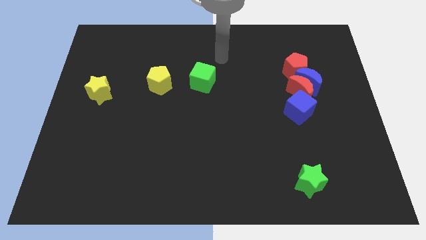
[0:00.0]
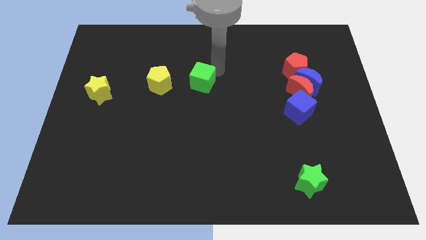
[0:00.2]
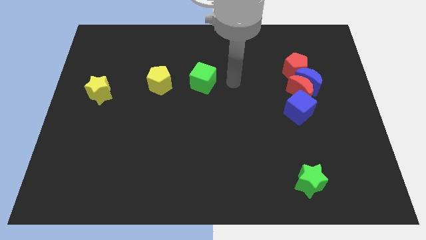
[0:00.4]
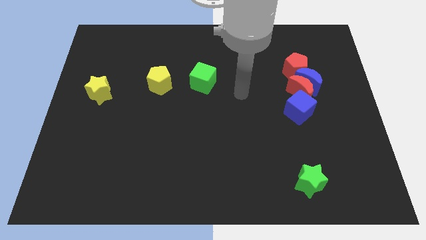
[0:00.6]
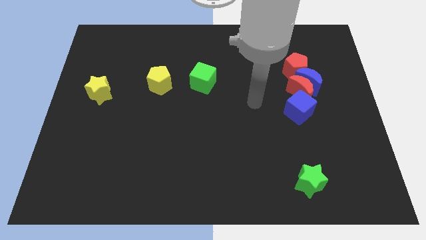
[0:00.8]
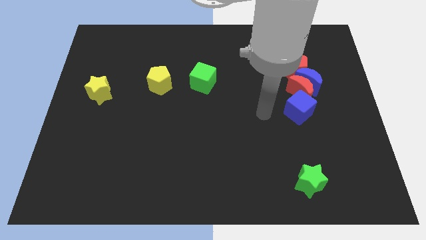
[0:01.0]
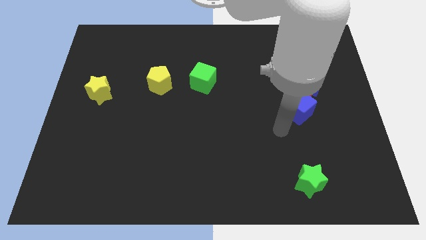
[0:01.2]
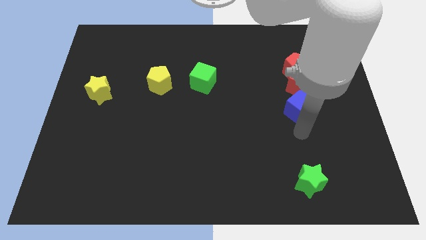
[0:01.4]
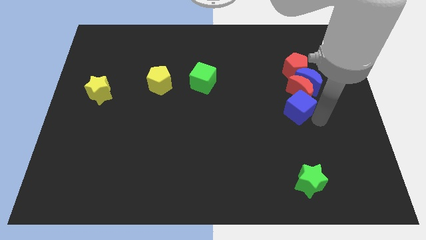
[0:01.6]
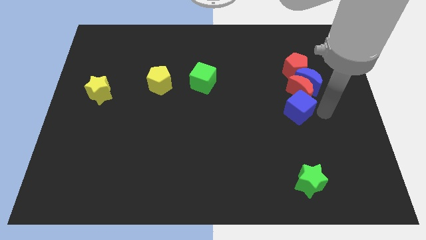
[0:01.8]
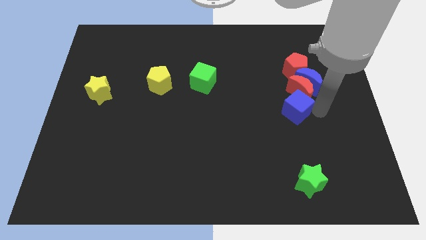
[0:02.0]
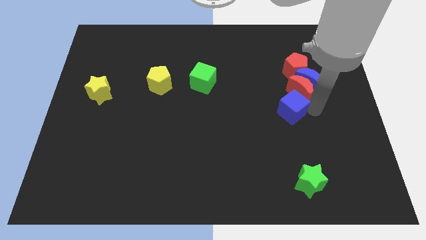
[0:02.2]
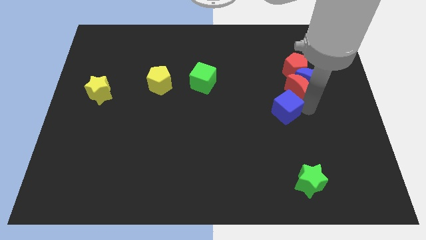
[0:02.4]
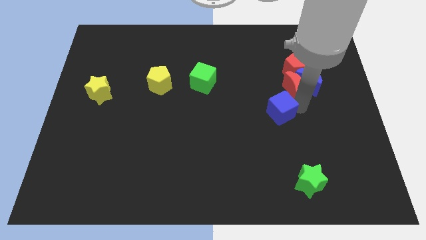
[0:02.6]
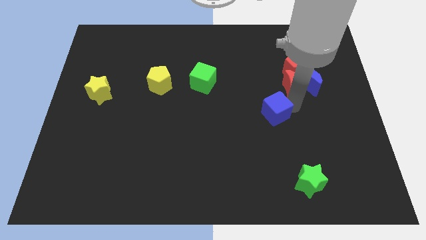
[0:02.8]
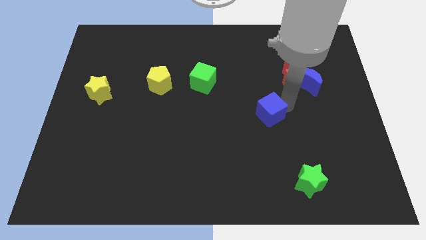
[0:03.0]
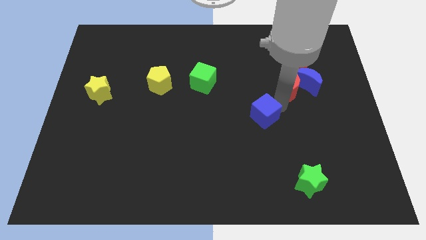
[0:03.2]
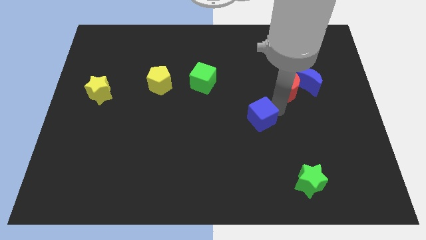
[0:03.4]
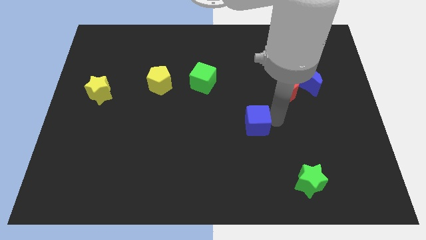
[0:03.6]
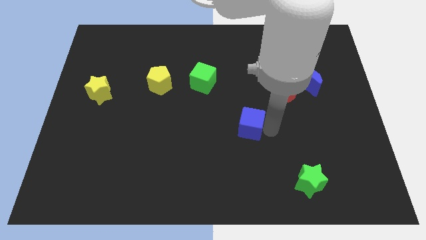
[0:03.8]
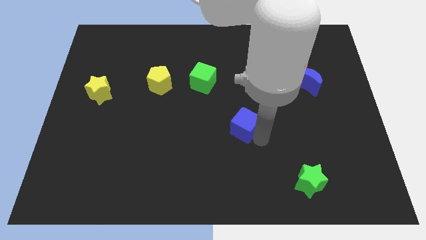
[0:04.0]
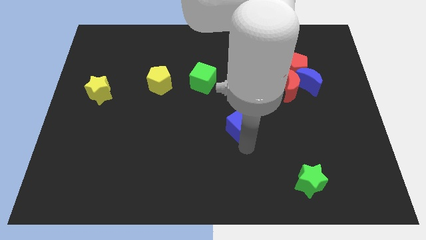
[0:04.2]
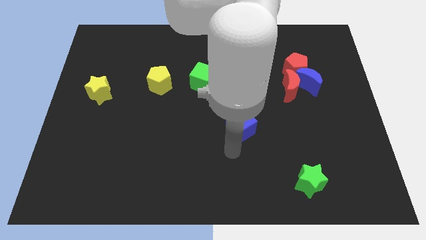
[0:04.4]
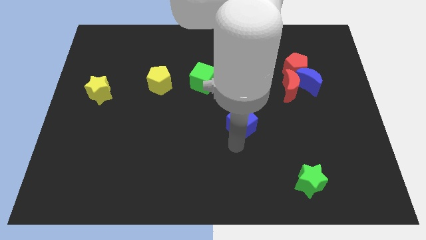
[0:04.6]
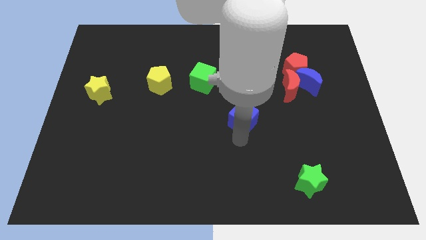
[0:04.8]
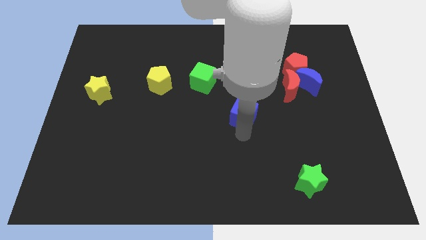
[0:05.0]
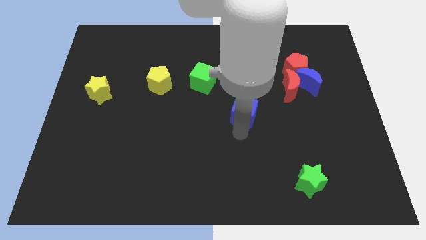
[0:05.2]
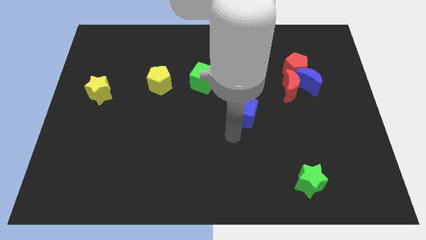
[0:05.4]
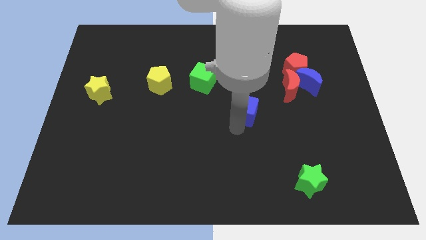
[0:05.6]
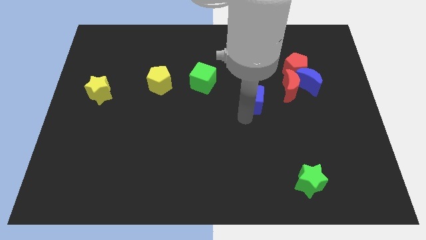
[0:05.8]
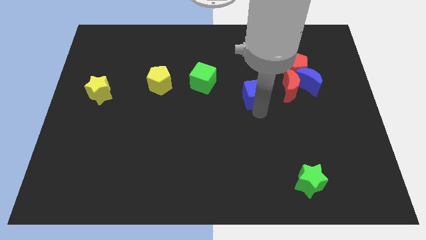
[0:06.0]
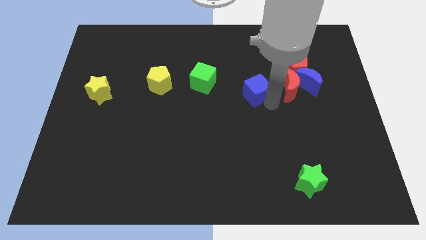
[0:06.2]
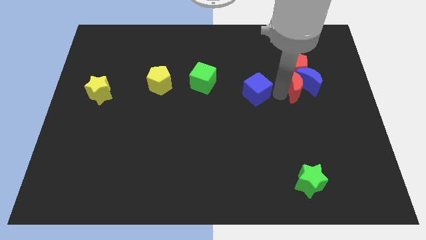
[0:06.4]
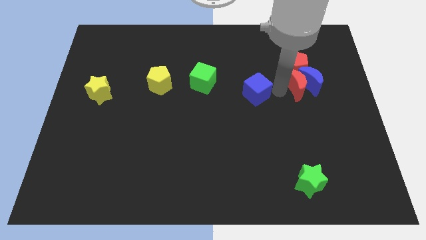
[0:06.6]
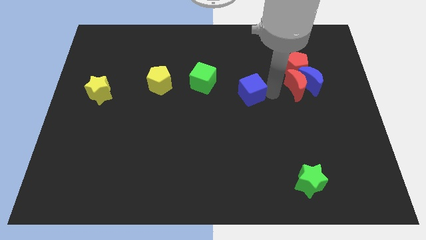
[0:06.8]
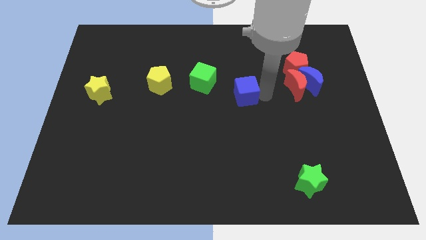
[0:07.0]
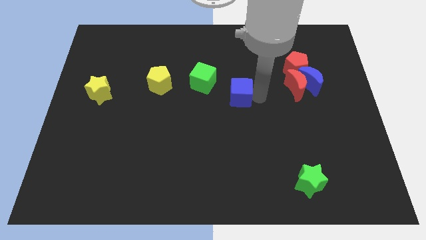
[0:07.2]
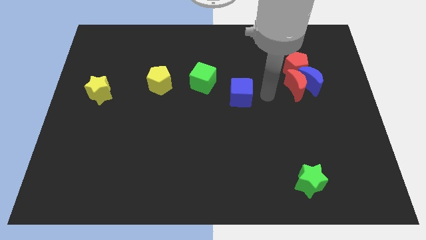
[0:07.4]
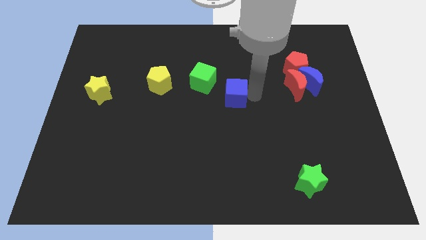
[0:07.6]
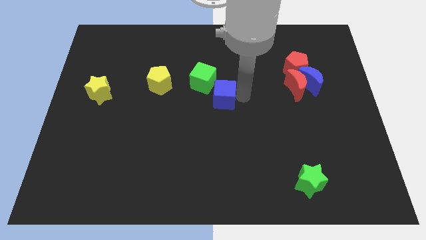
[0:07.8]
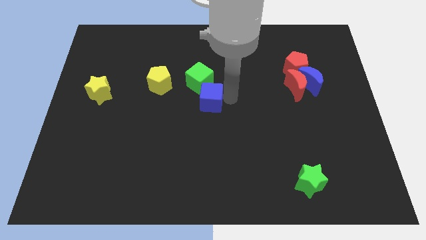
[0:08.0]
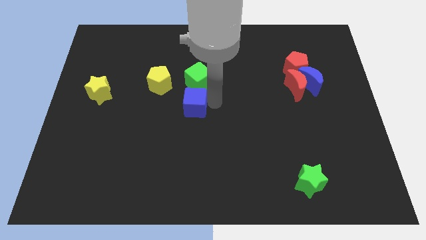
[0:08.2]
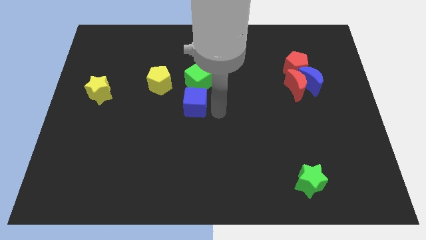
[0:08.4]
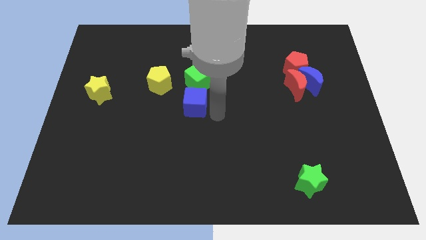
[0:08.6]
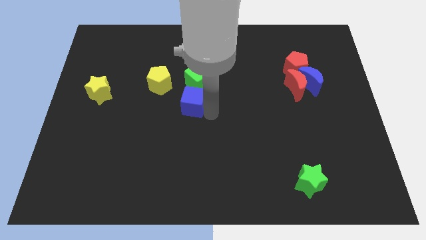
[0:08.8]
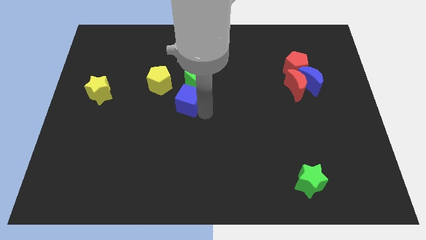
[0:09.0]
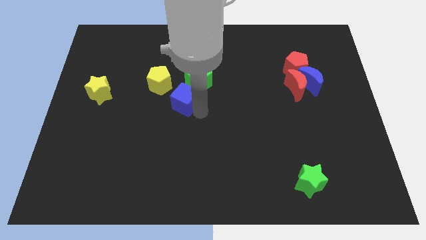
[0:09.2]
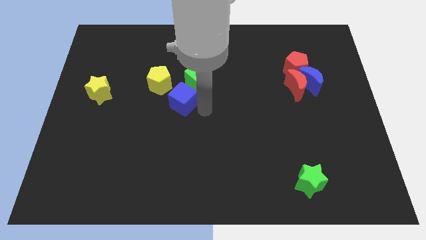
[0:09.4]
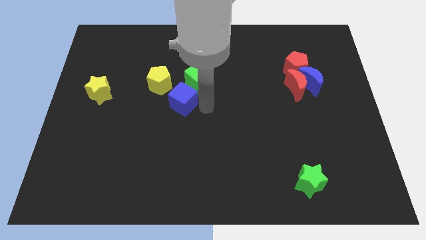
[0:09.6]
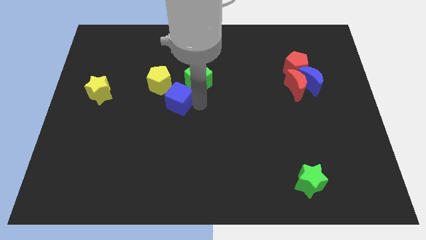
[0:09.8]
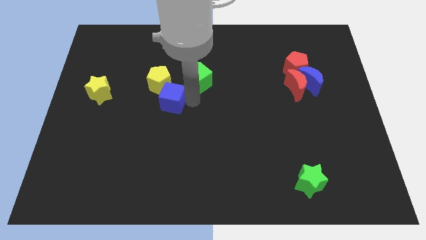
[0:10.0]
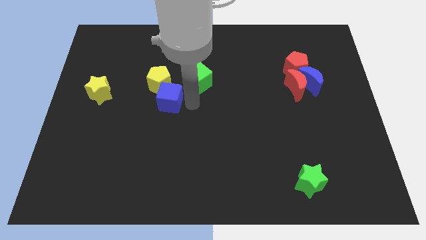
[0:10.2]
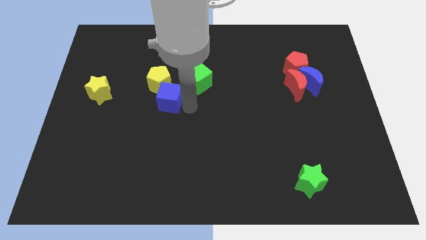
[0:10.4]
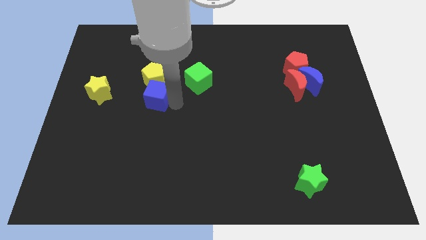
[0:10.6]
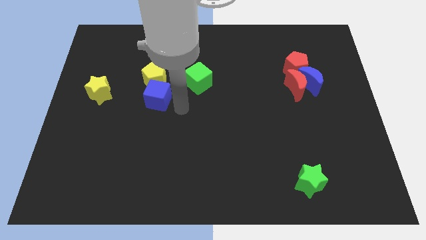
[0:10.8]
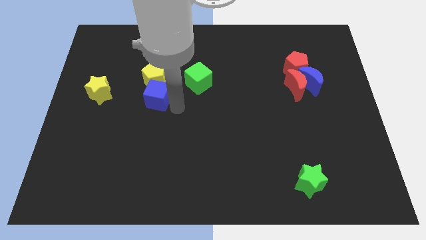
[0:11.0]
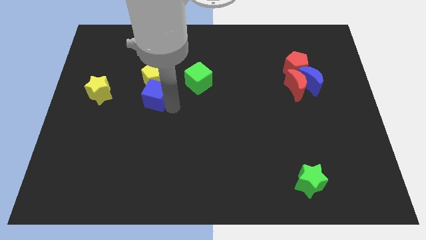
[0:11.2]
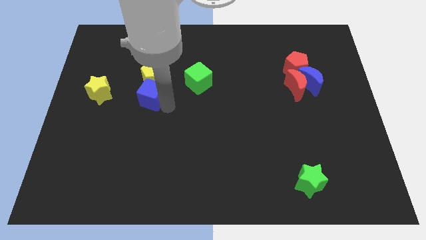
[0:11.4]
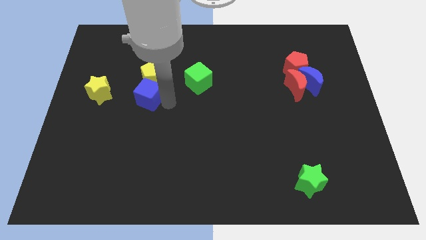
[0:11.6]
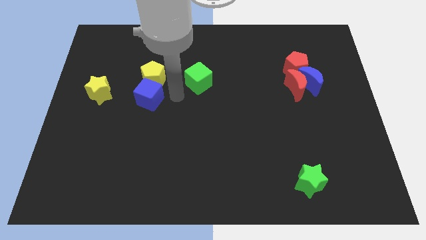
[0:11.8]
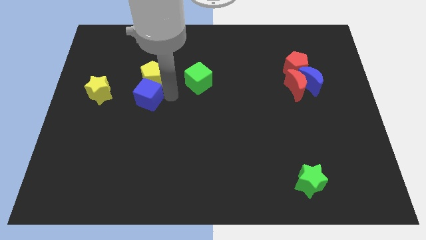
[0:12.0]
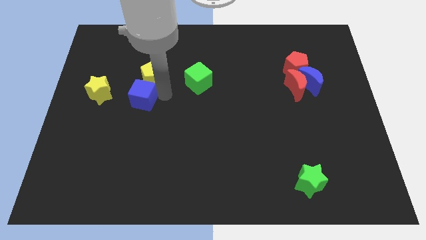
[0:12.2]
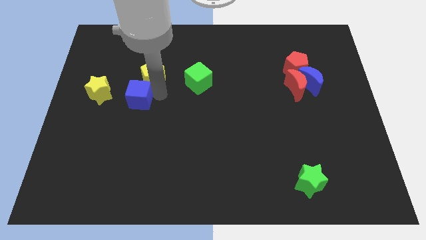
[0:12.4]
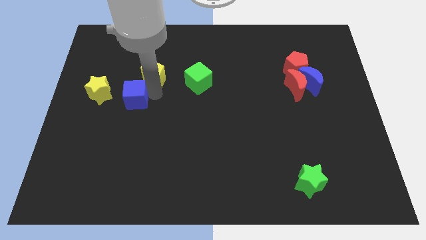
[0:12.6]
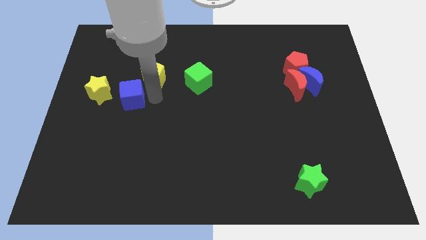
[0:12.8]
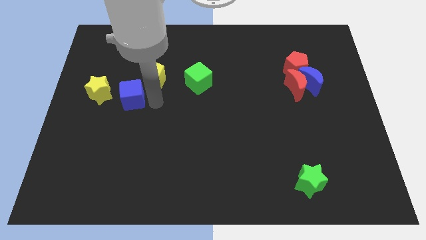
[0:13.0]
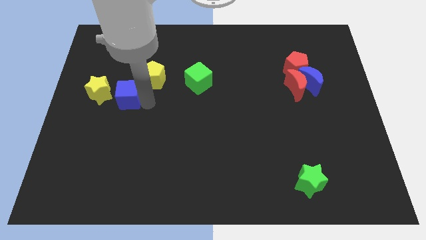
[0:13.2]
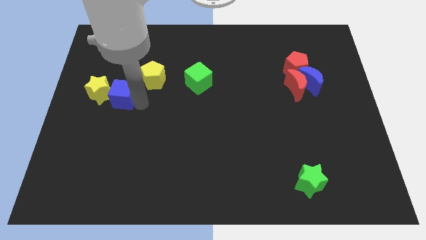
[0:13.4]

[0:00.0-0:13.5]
push the blue cube close to the yellow star
